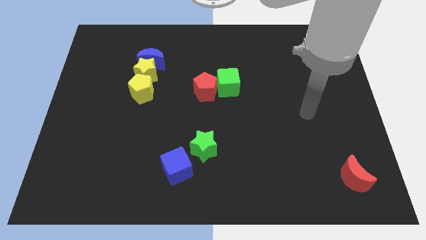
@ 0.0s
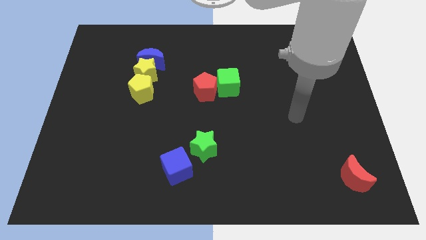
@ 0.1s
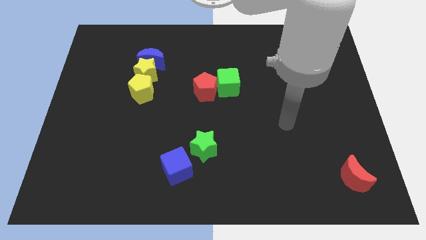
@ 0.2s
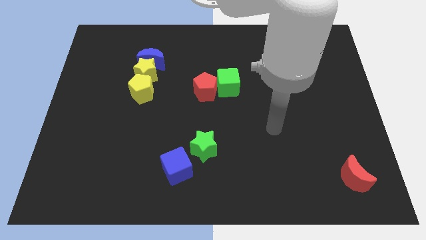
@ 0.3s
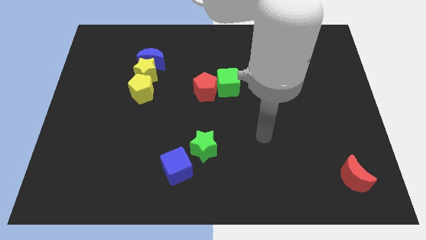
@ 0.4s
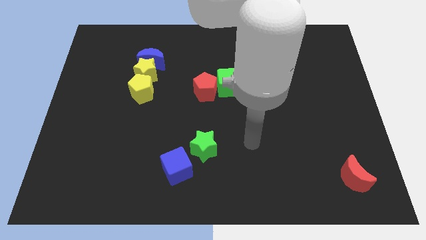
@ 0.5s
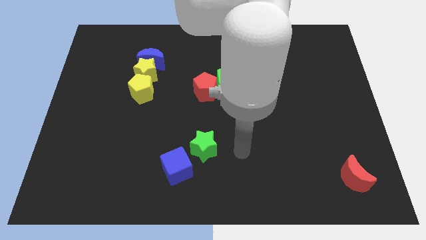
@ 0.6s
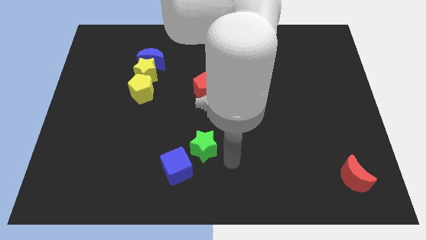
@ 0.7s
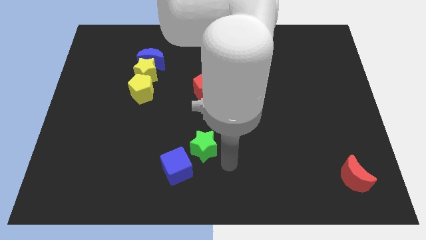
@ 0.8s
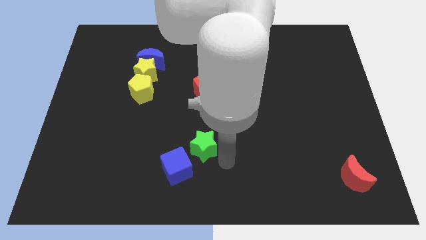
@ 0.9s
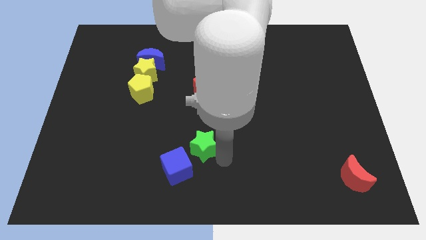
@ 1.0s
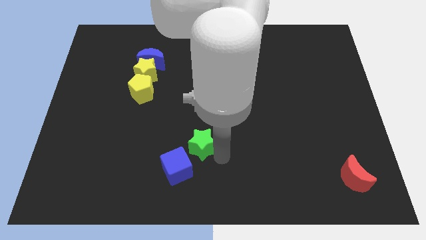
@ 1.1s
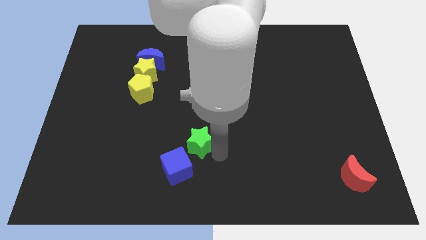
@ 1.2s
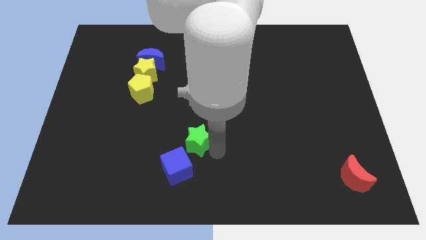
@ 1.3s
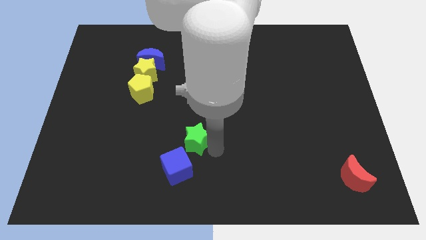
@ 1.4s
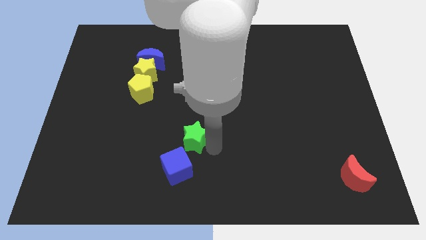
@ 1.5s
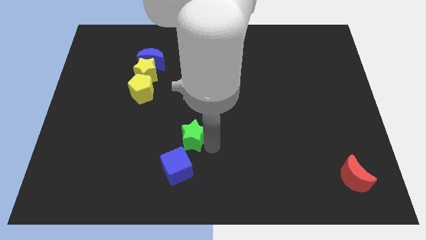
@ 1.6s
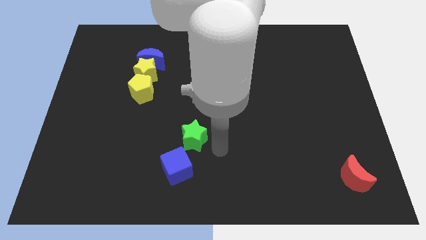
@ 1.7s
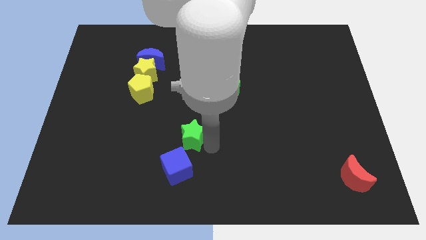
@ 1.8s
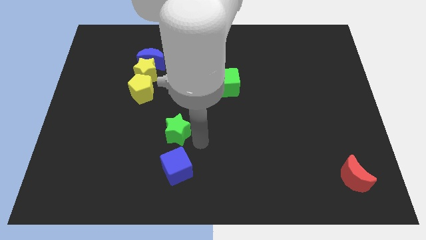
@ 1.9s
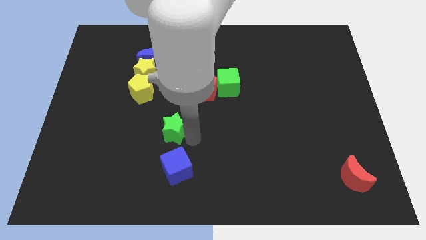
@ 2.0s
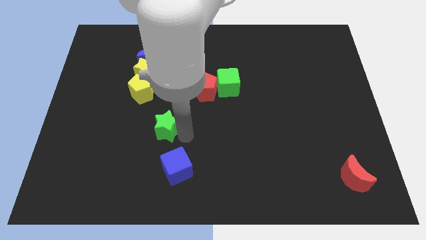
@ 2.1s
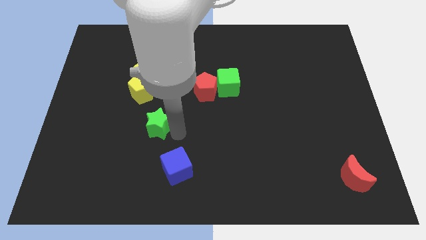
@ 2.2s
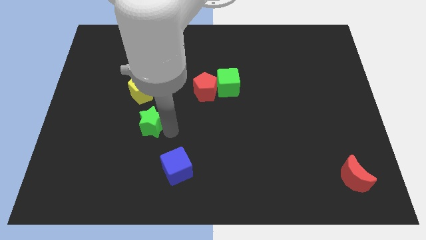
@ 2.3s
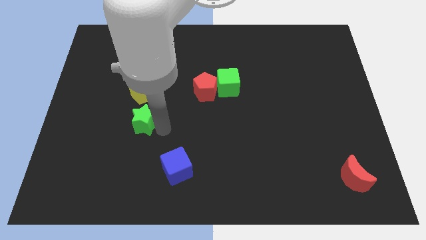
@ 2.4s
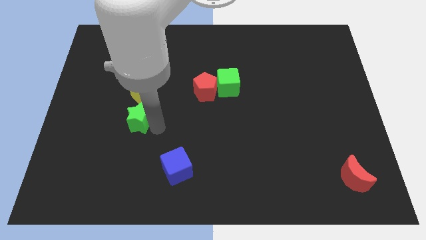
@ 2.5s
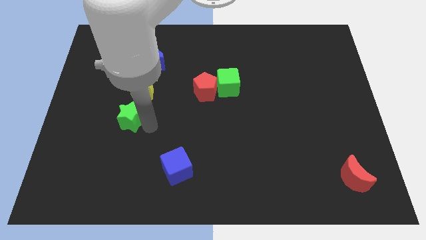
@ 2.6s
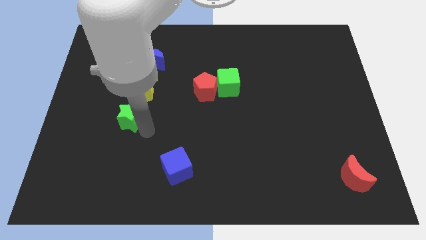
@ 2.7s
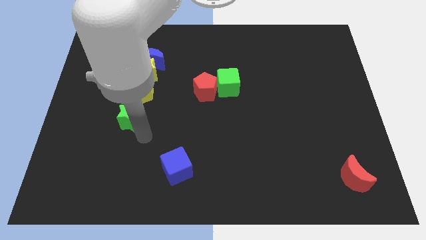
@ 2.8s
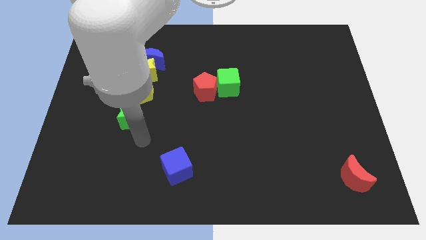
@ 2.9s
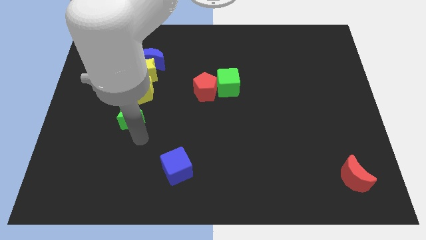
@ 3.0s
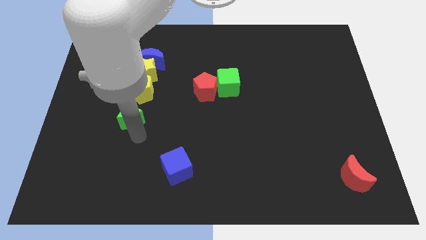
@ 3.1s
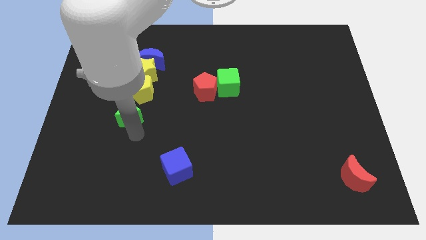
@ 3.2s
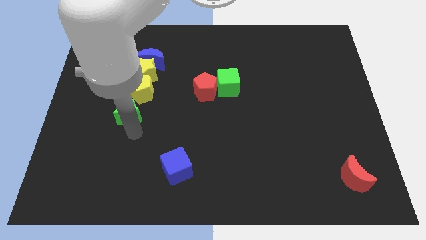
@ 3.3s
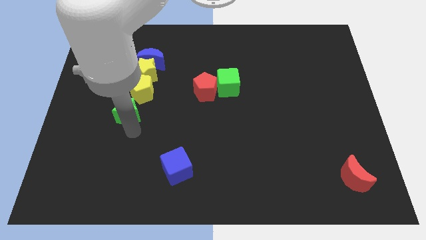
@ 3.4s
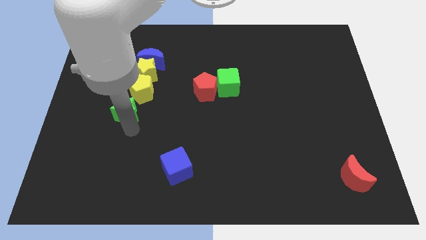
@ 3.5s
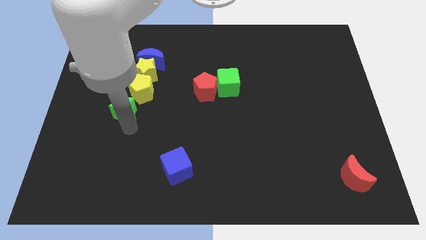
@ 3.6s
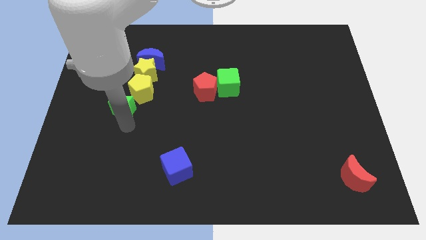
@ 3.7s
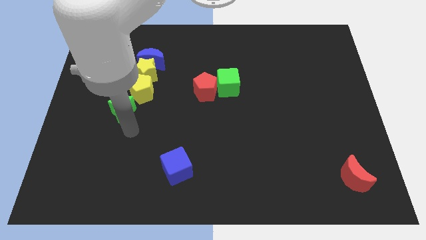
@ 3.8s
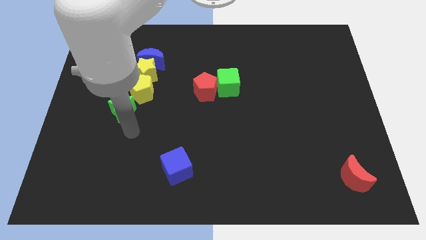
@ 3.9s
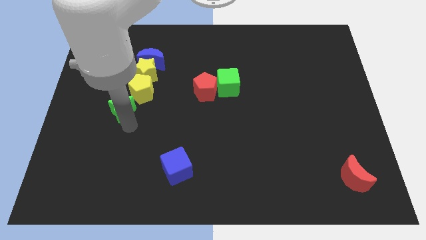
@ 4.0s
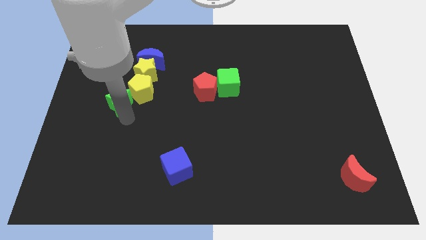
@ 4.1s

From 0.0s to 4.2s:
move the green star up and to the left

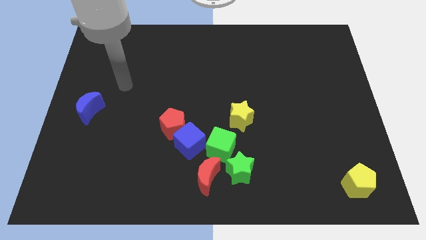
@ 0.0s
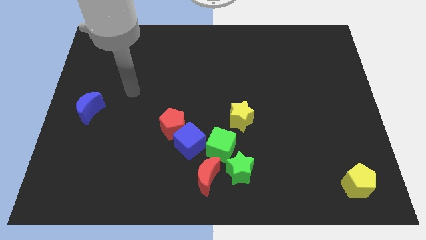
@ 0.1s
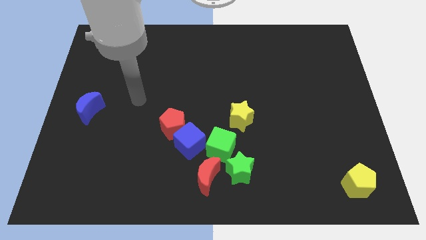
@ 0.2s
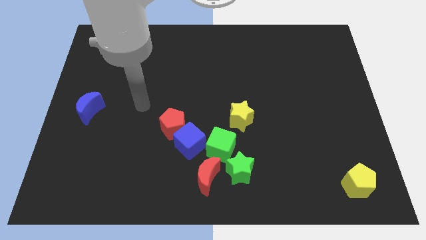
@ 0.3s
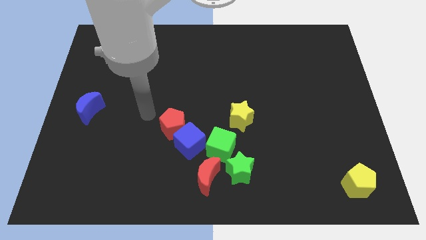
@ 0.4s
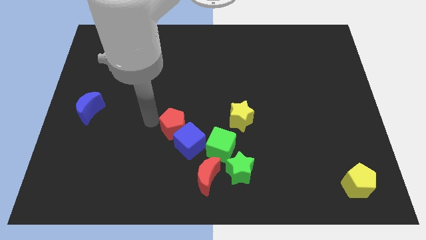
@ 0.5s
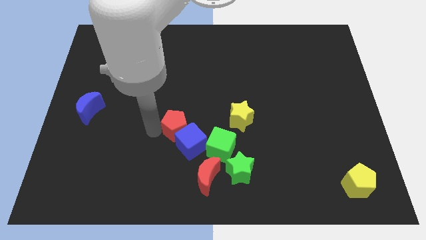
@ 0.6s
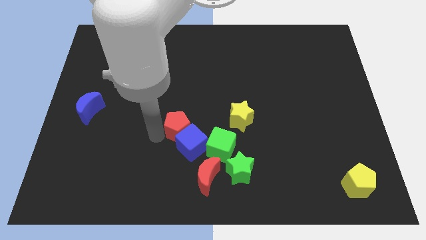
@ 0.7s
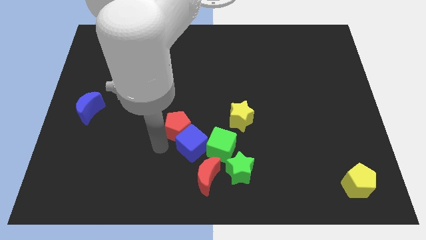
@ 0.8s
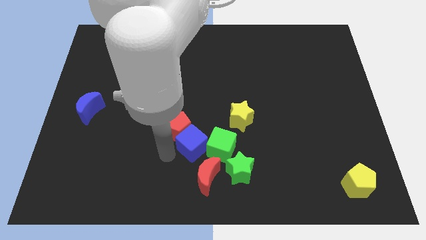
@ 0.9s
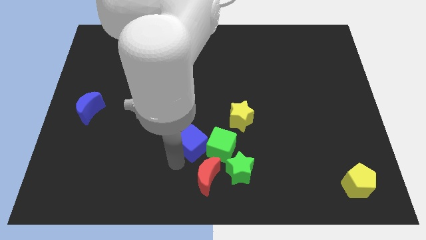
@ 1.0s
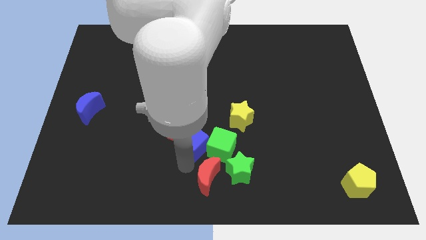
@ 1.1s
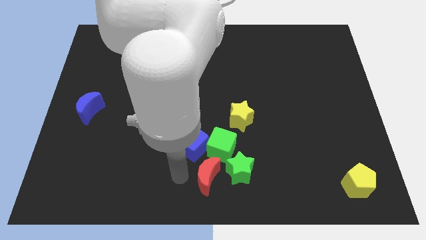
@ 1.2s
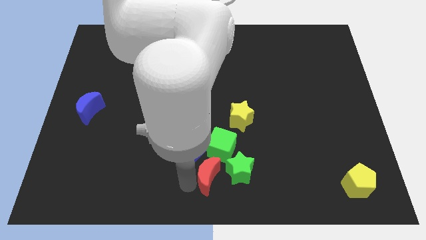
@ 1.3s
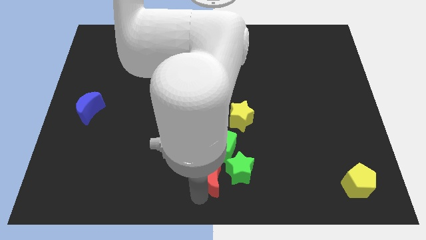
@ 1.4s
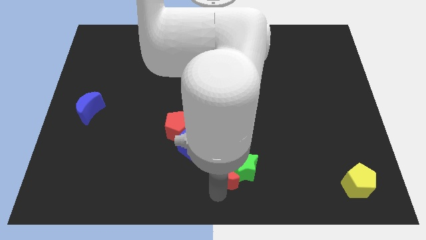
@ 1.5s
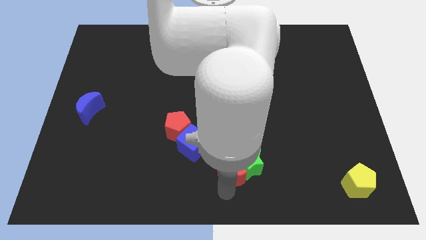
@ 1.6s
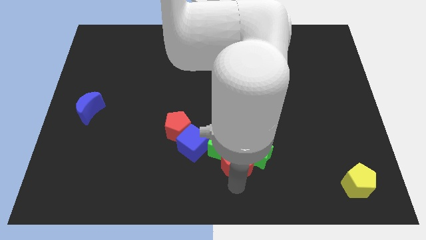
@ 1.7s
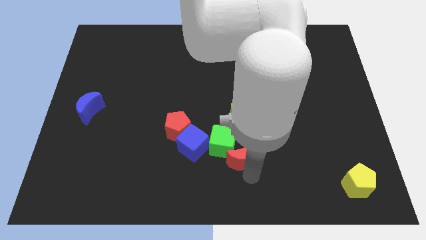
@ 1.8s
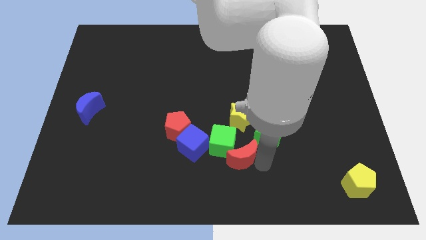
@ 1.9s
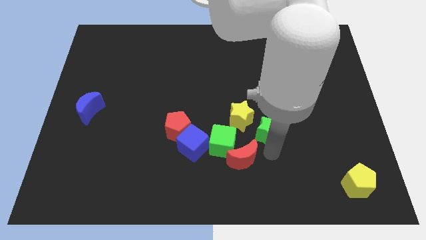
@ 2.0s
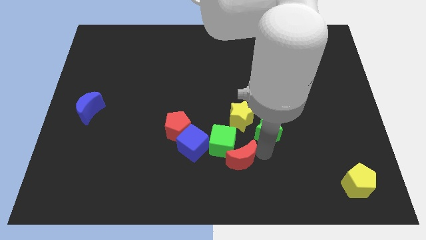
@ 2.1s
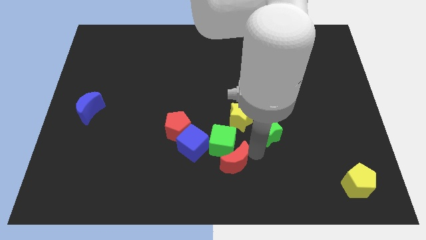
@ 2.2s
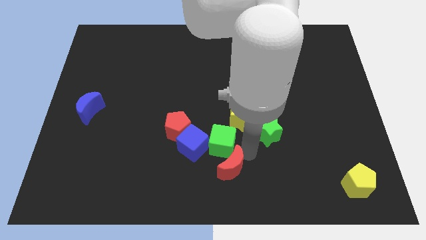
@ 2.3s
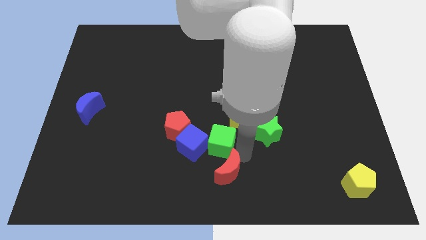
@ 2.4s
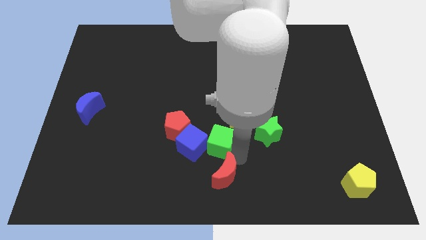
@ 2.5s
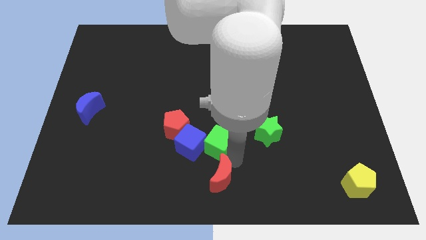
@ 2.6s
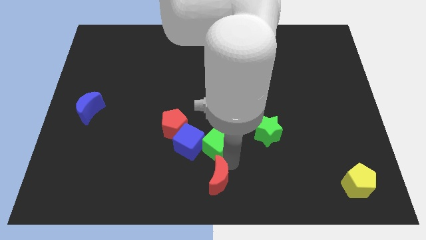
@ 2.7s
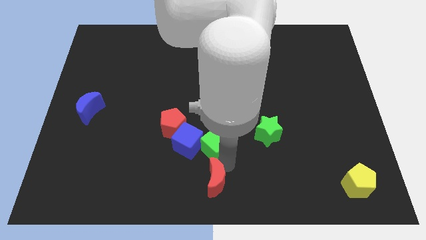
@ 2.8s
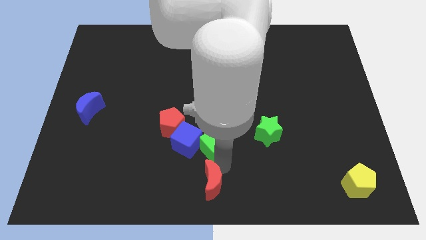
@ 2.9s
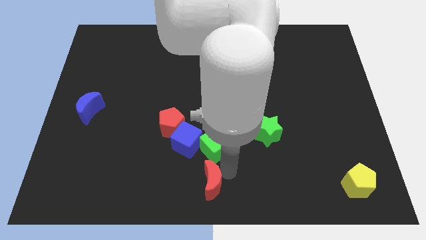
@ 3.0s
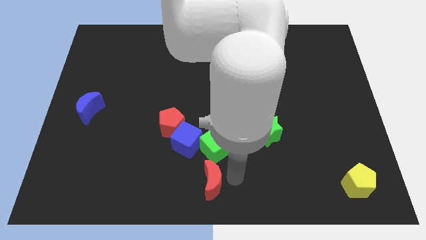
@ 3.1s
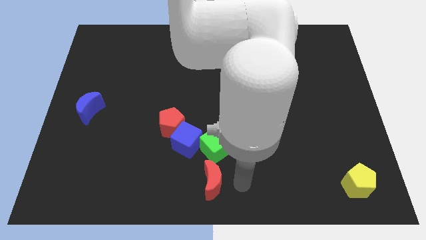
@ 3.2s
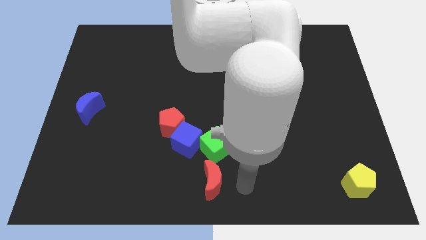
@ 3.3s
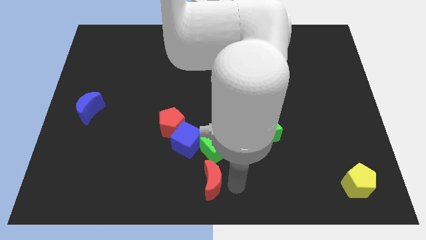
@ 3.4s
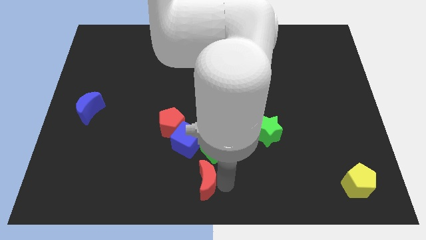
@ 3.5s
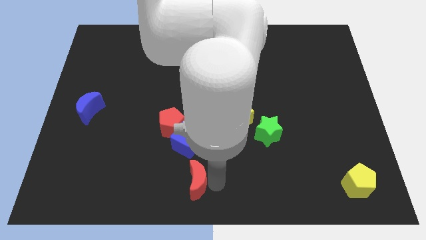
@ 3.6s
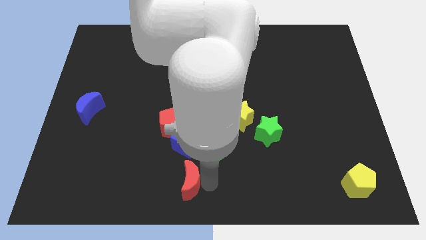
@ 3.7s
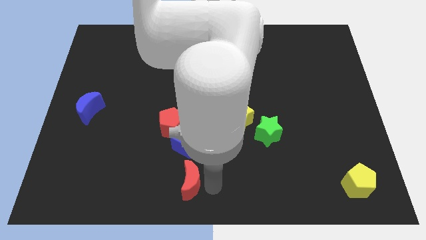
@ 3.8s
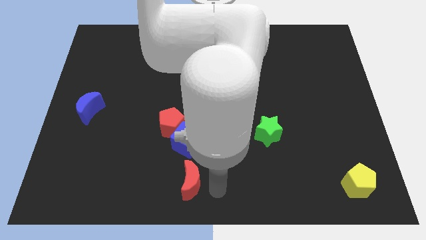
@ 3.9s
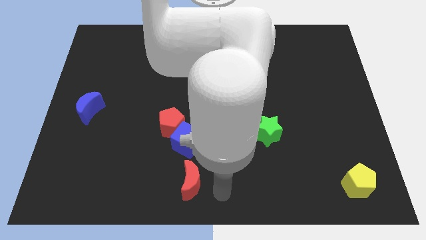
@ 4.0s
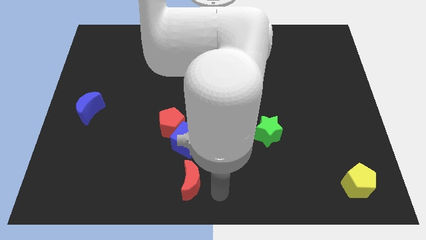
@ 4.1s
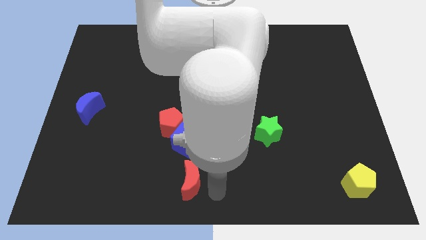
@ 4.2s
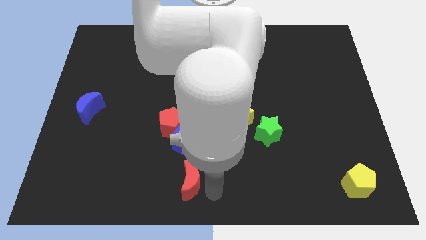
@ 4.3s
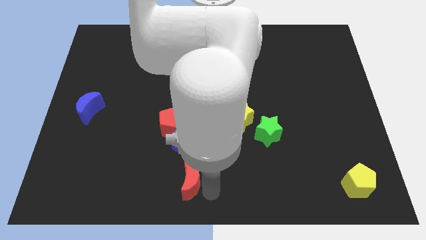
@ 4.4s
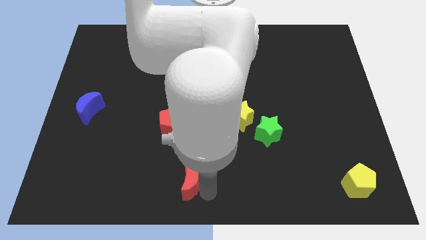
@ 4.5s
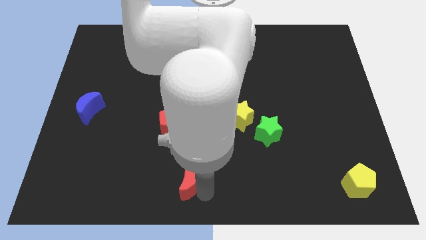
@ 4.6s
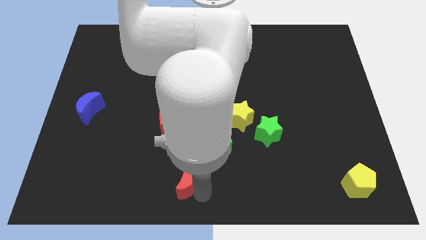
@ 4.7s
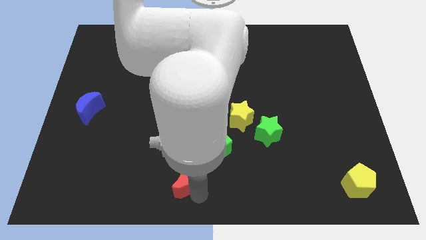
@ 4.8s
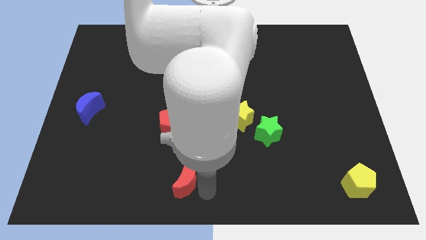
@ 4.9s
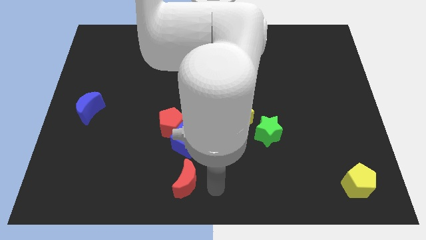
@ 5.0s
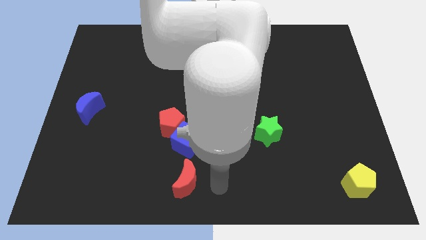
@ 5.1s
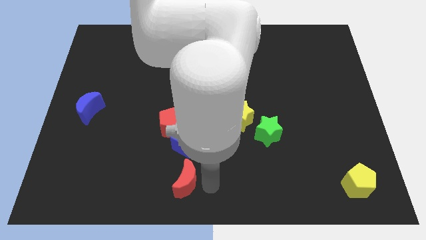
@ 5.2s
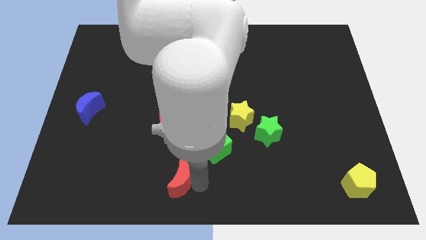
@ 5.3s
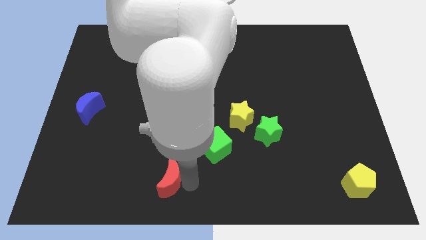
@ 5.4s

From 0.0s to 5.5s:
slide the red moon a little left
